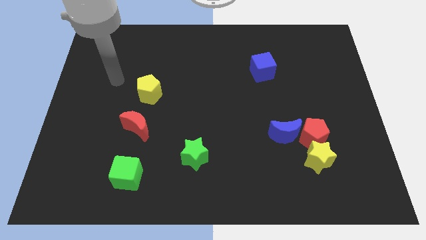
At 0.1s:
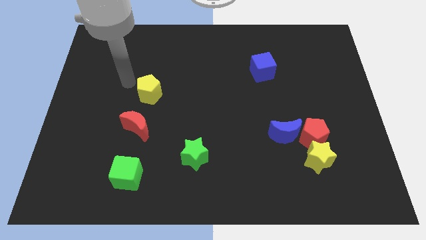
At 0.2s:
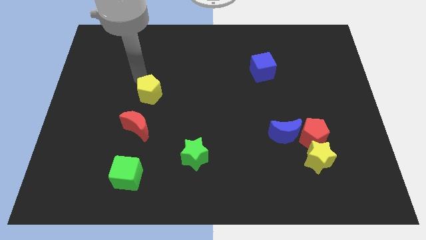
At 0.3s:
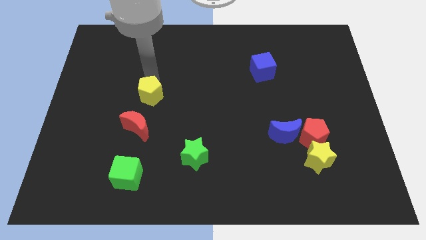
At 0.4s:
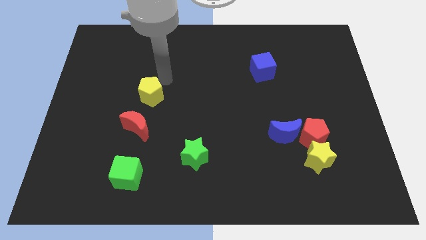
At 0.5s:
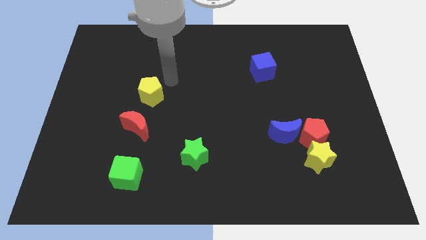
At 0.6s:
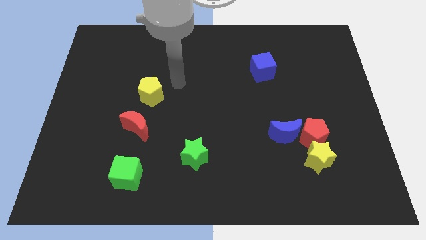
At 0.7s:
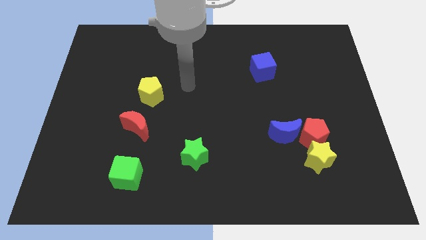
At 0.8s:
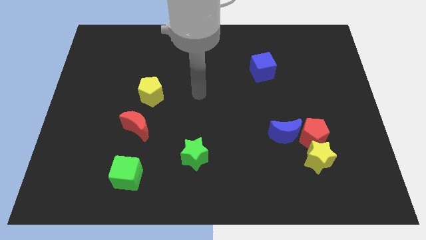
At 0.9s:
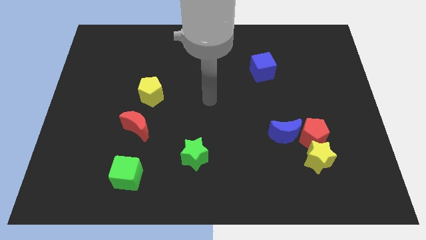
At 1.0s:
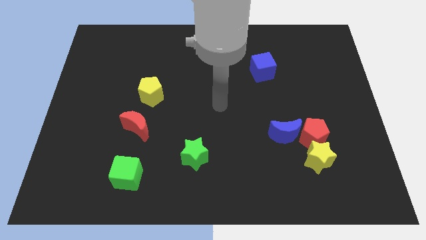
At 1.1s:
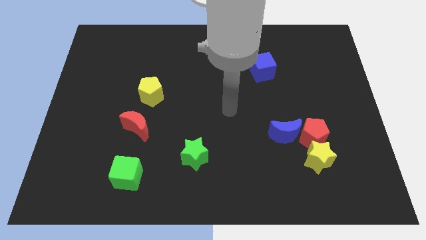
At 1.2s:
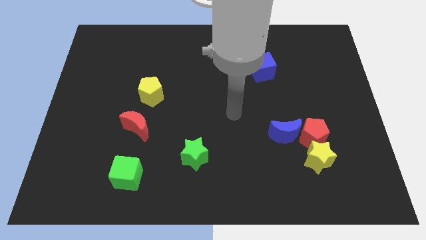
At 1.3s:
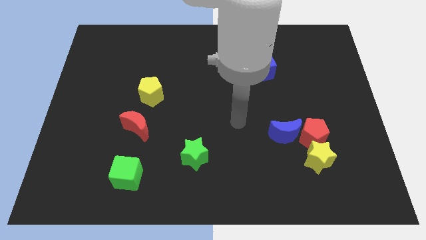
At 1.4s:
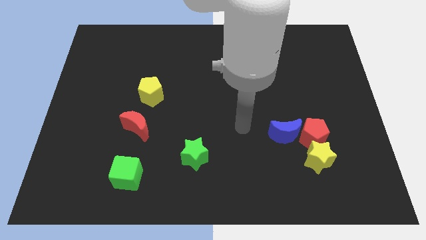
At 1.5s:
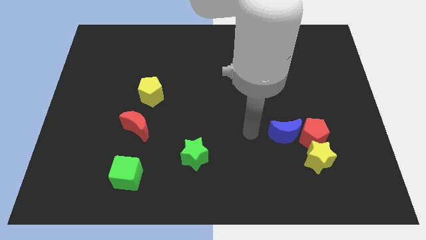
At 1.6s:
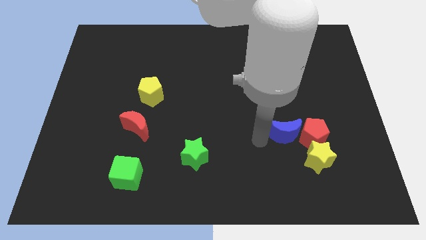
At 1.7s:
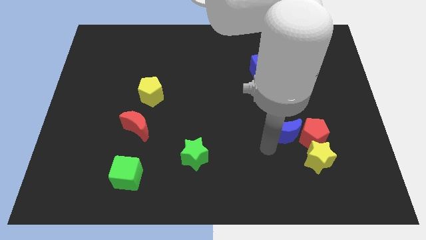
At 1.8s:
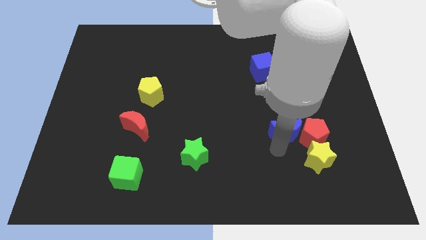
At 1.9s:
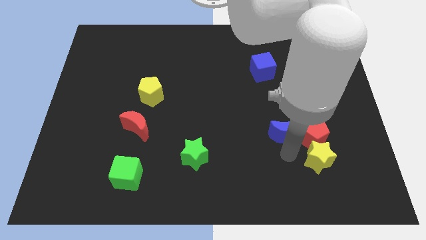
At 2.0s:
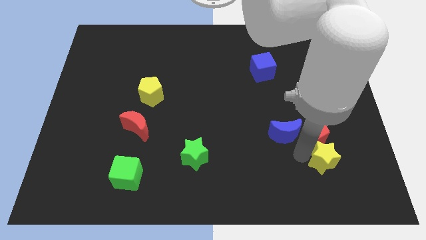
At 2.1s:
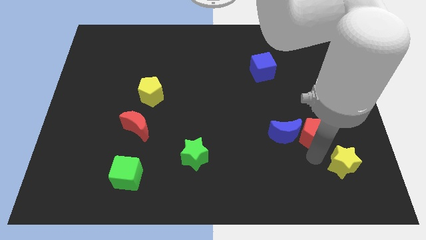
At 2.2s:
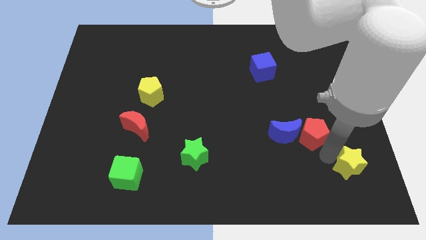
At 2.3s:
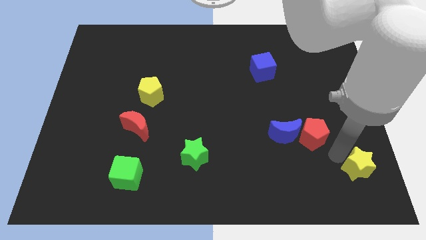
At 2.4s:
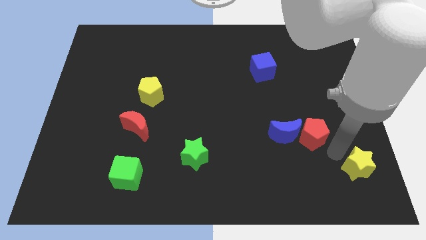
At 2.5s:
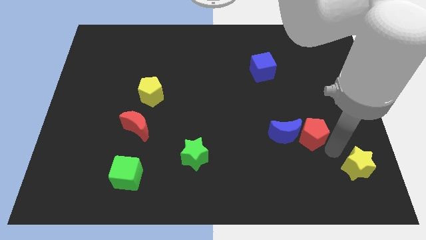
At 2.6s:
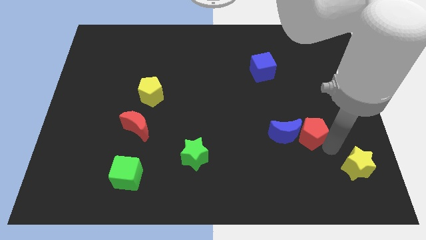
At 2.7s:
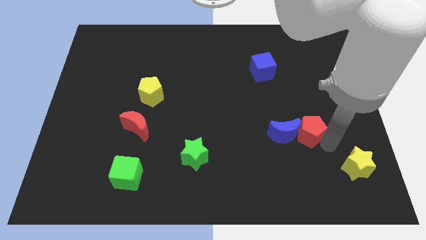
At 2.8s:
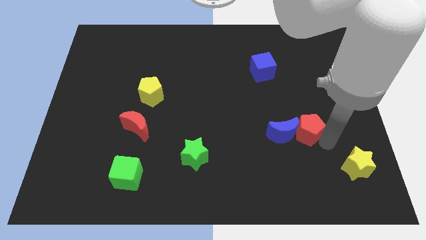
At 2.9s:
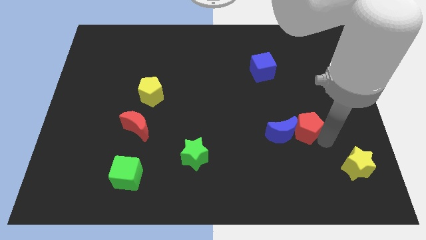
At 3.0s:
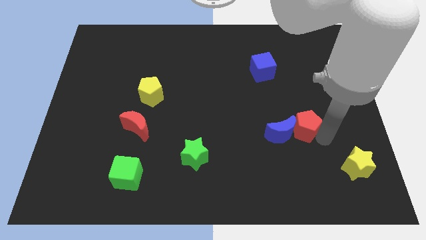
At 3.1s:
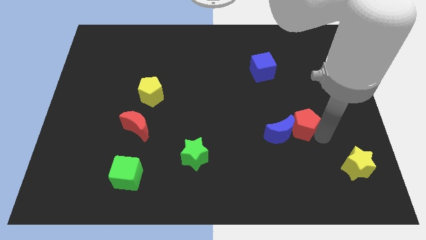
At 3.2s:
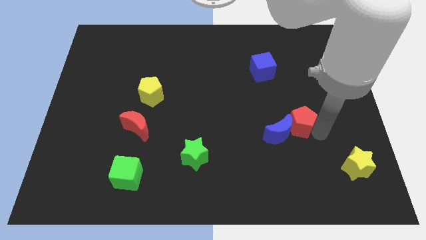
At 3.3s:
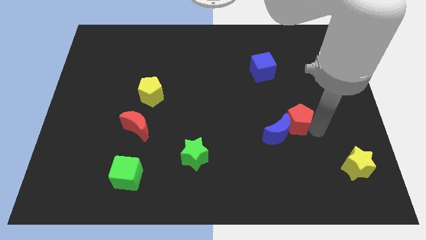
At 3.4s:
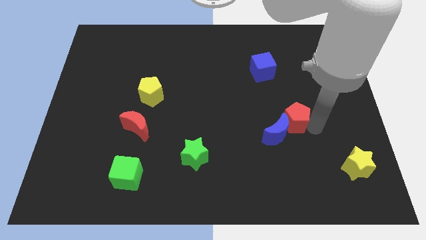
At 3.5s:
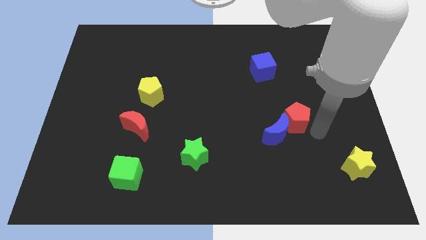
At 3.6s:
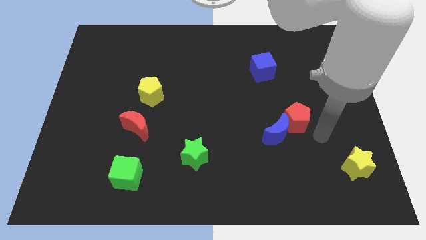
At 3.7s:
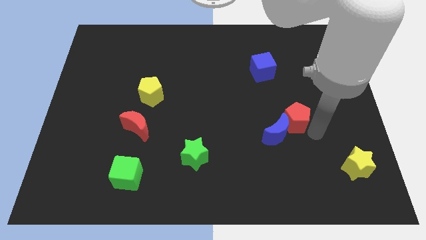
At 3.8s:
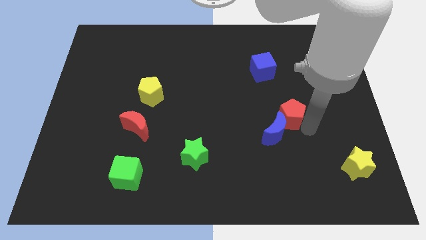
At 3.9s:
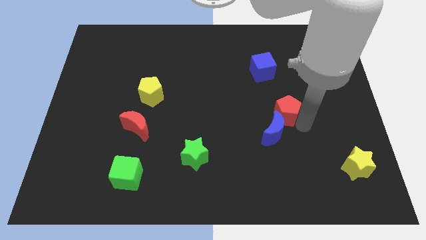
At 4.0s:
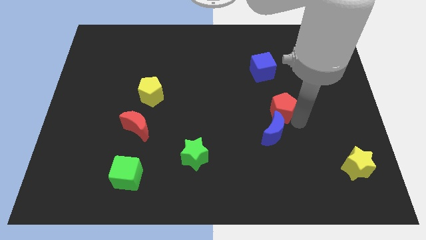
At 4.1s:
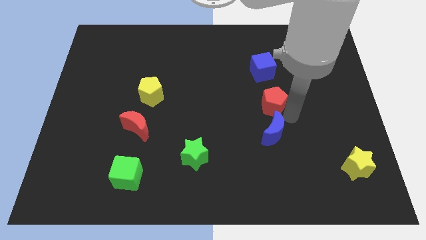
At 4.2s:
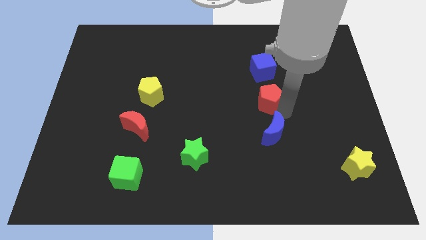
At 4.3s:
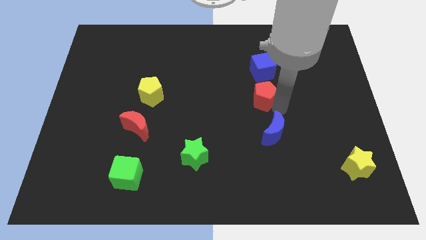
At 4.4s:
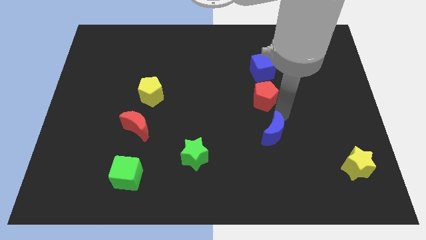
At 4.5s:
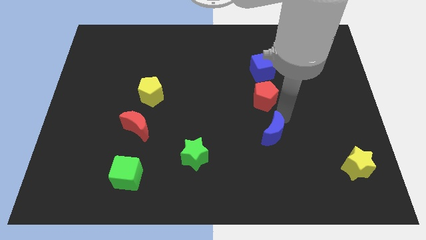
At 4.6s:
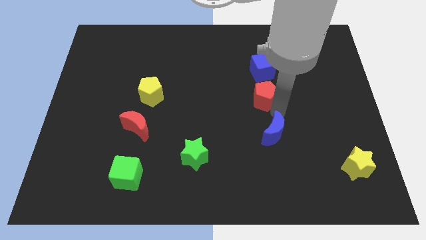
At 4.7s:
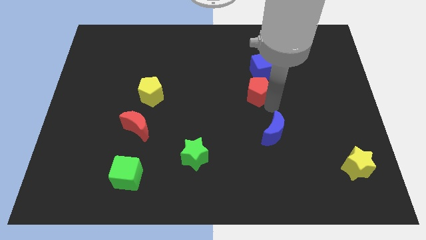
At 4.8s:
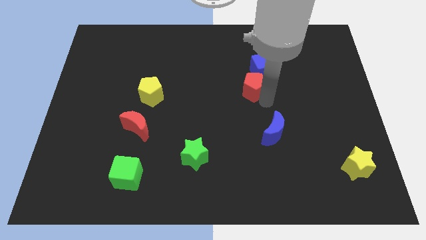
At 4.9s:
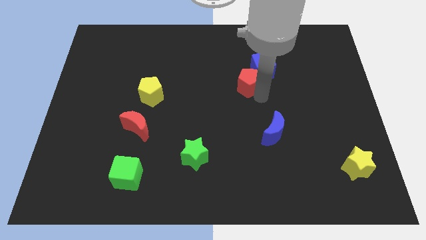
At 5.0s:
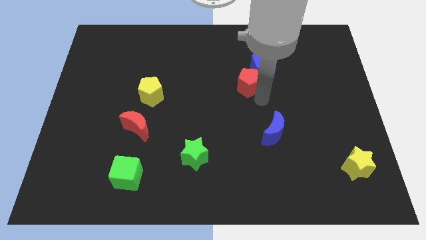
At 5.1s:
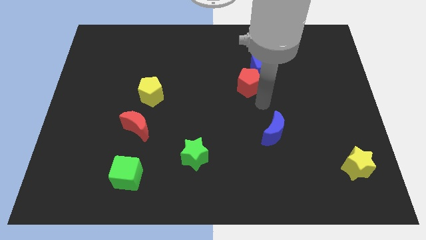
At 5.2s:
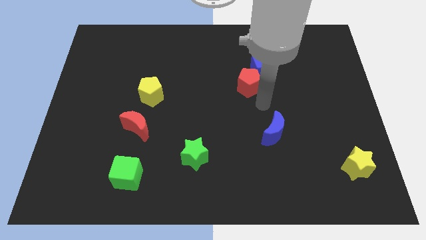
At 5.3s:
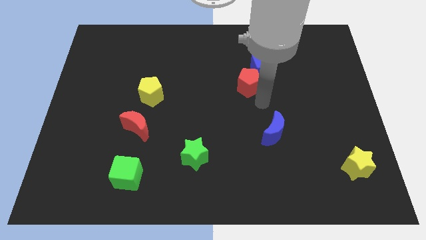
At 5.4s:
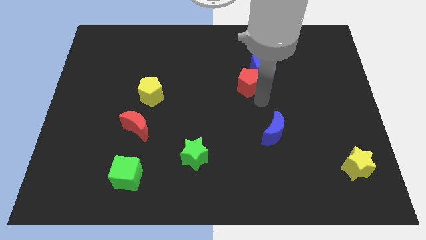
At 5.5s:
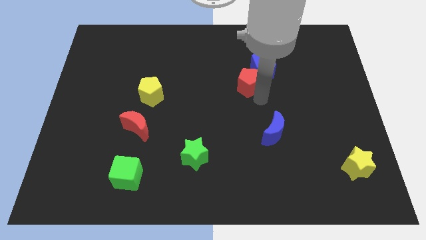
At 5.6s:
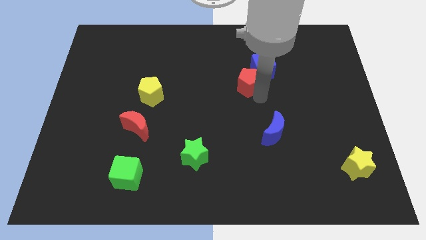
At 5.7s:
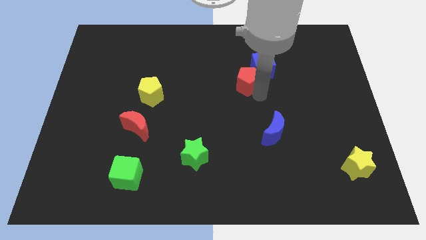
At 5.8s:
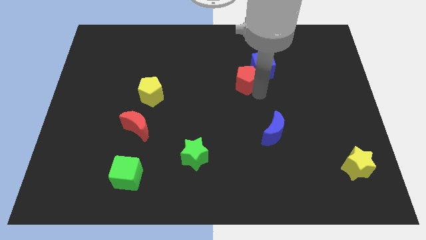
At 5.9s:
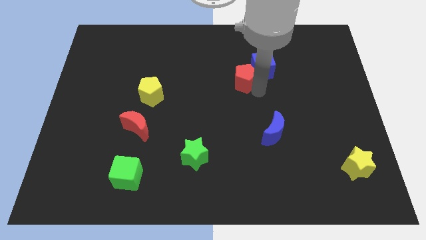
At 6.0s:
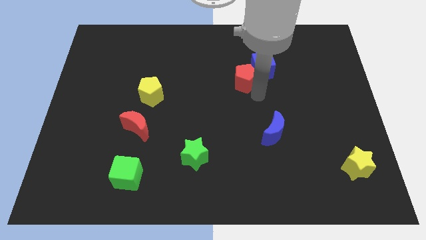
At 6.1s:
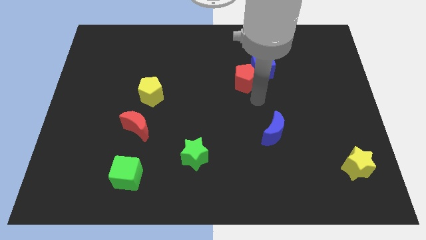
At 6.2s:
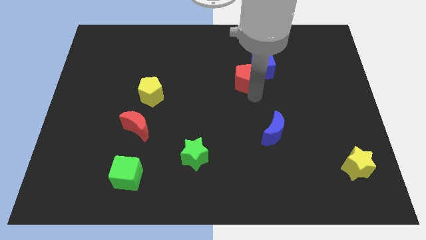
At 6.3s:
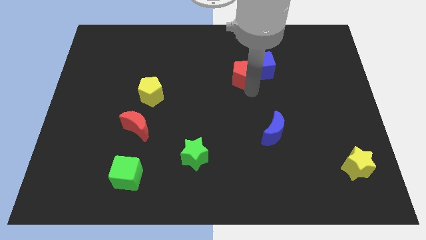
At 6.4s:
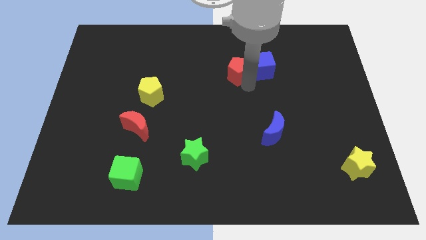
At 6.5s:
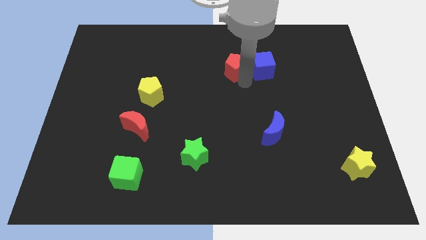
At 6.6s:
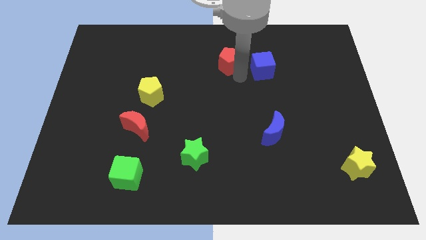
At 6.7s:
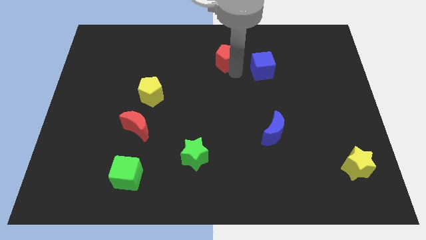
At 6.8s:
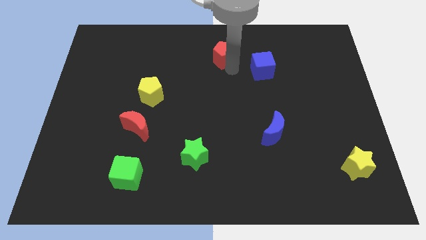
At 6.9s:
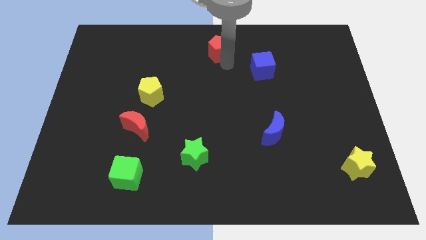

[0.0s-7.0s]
put the red pentagon to the towards your base
